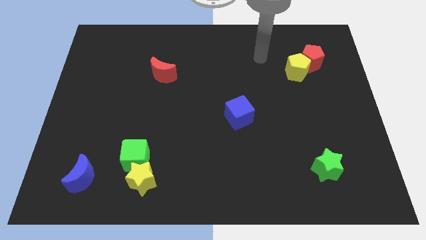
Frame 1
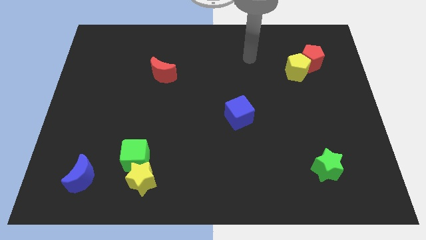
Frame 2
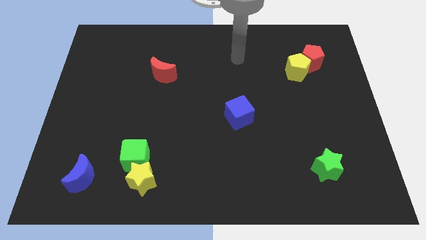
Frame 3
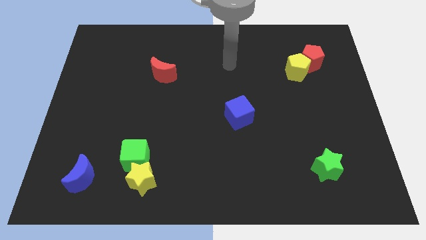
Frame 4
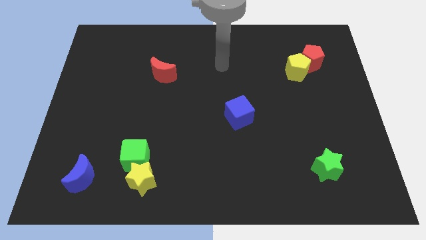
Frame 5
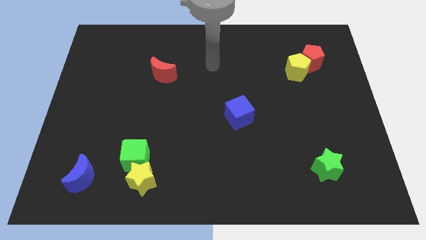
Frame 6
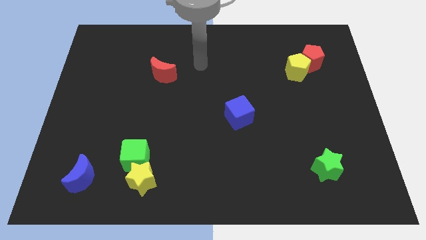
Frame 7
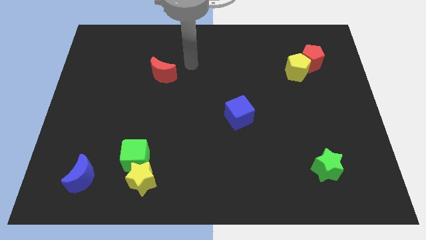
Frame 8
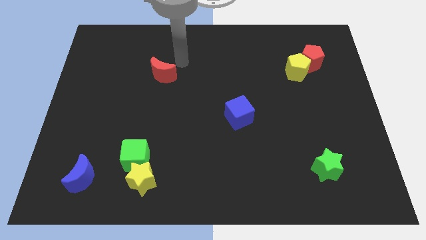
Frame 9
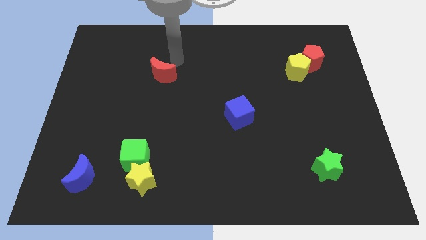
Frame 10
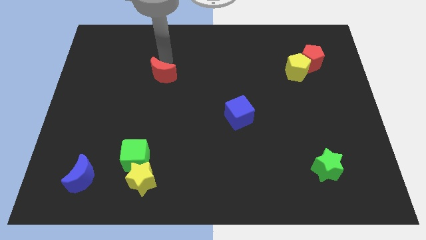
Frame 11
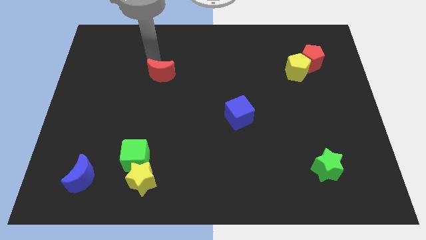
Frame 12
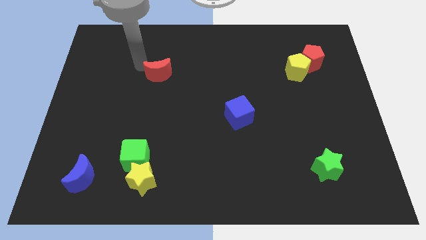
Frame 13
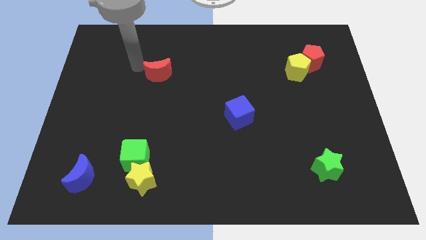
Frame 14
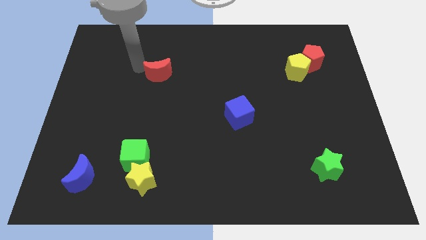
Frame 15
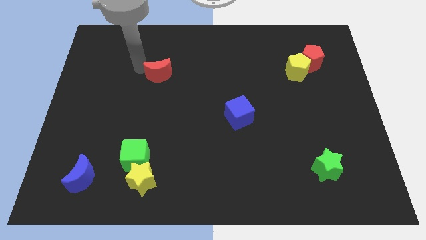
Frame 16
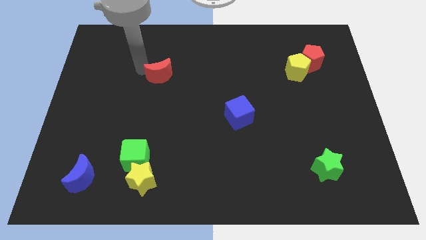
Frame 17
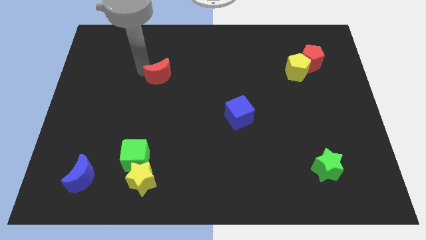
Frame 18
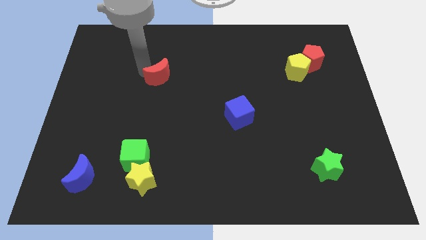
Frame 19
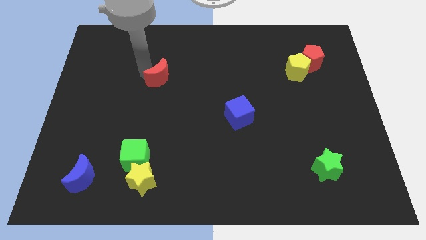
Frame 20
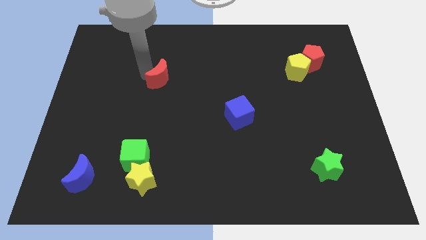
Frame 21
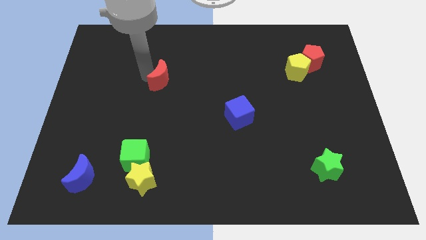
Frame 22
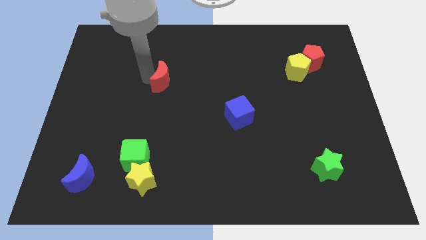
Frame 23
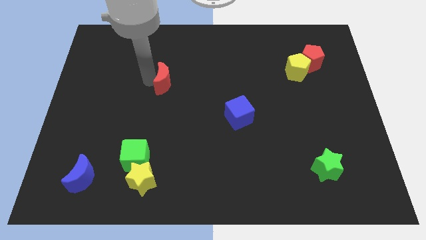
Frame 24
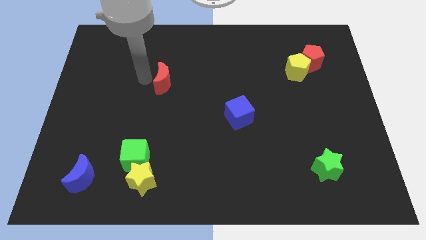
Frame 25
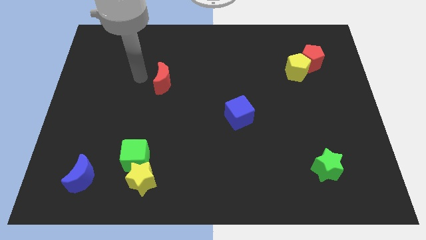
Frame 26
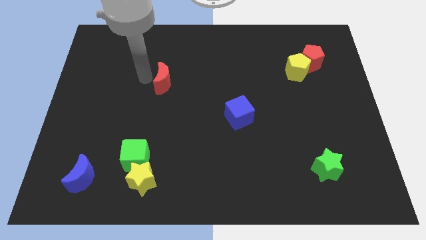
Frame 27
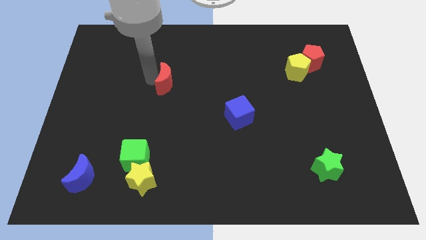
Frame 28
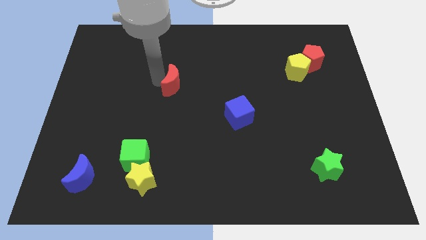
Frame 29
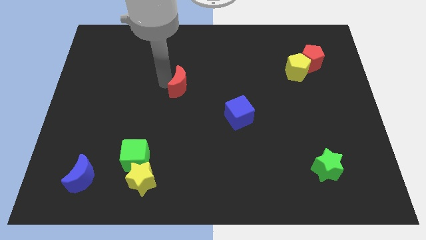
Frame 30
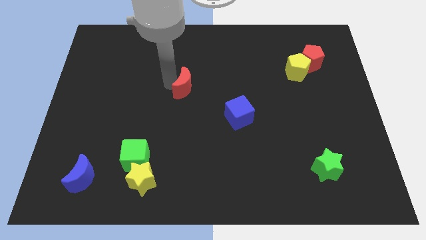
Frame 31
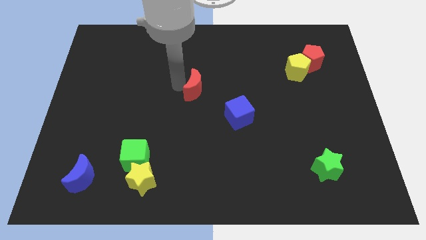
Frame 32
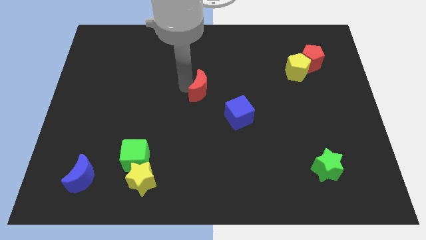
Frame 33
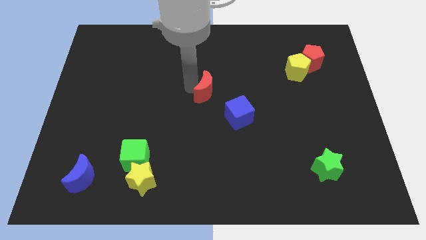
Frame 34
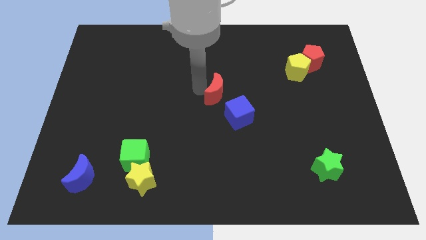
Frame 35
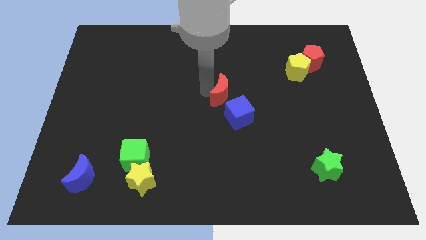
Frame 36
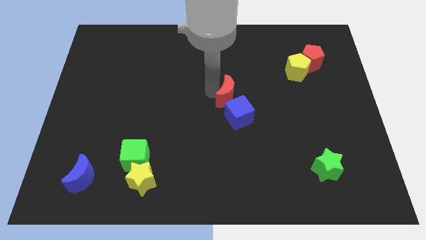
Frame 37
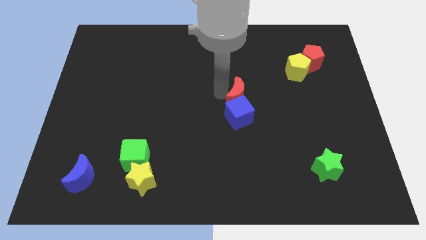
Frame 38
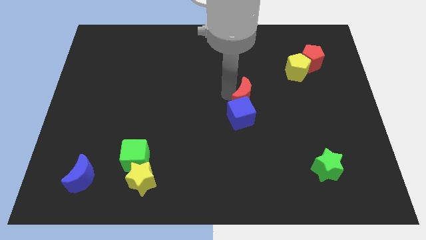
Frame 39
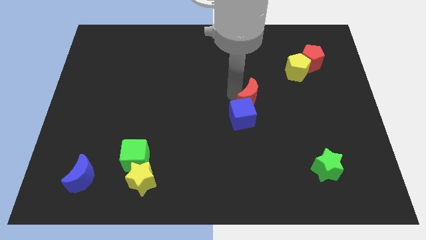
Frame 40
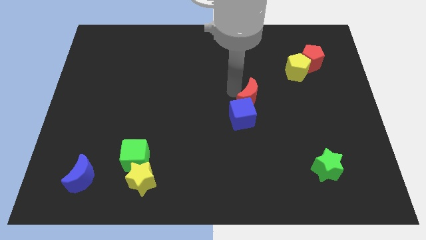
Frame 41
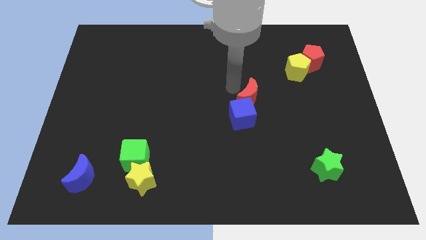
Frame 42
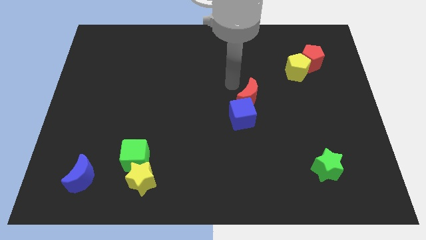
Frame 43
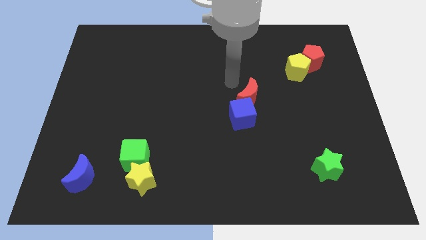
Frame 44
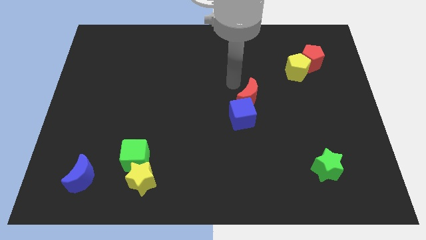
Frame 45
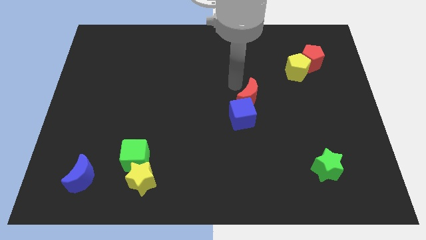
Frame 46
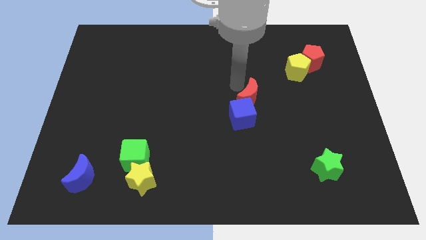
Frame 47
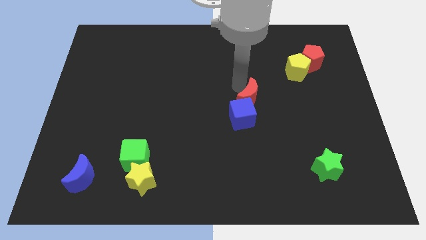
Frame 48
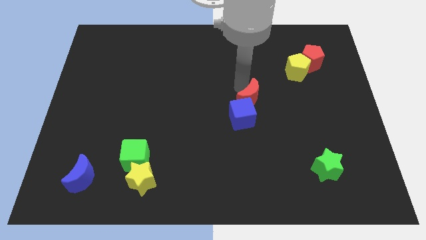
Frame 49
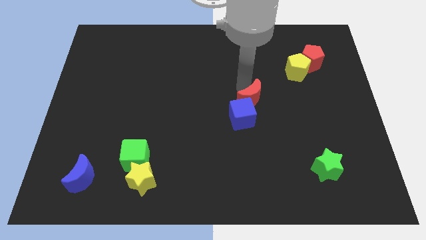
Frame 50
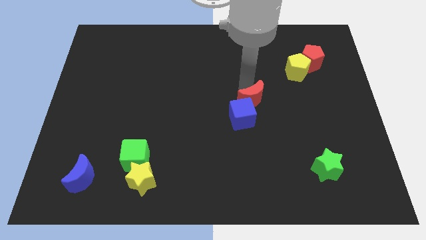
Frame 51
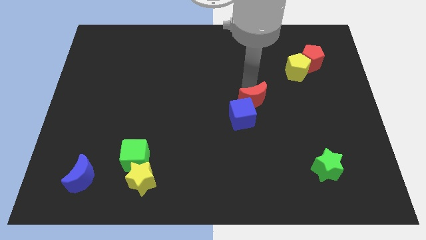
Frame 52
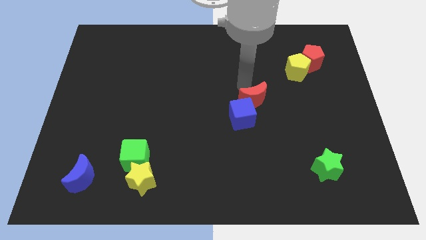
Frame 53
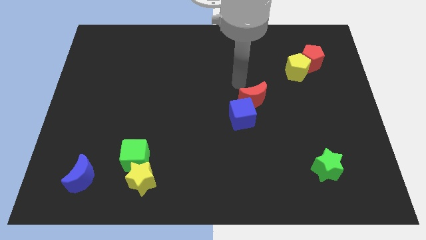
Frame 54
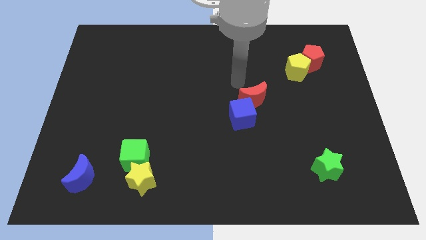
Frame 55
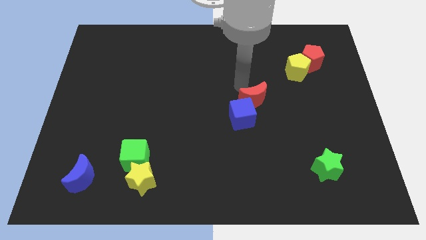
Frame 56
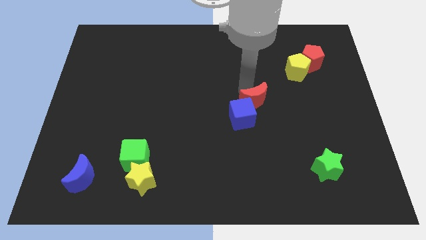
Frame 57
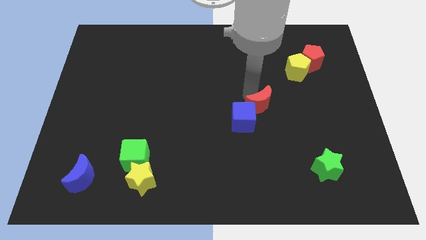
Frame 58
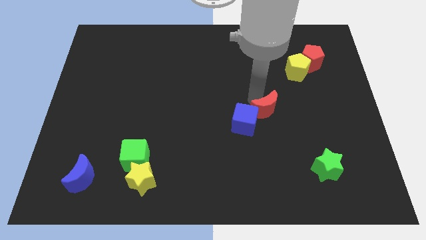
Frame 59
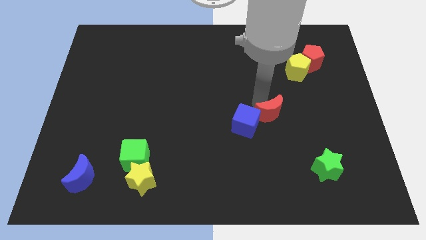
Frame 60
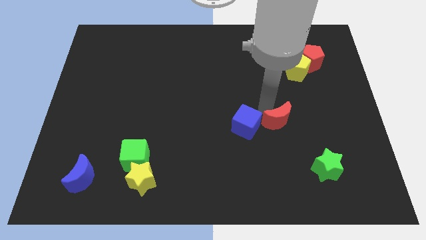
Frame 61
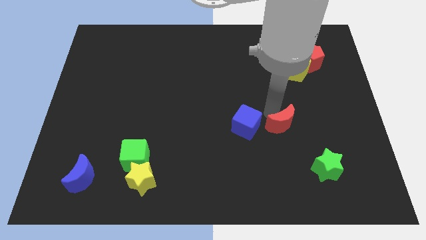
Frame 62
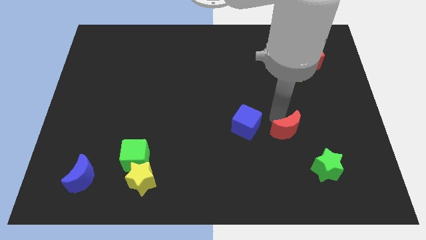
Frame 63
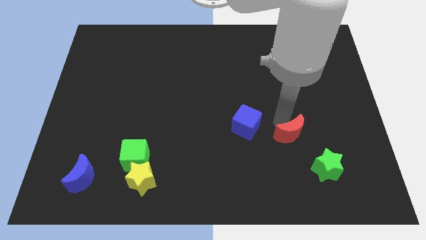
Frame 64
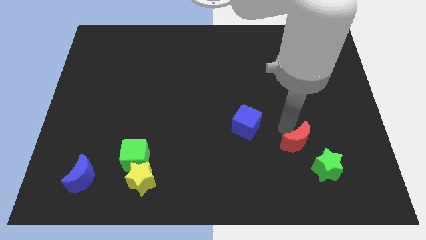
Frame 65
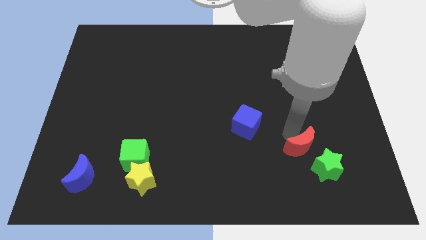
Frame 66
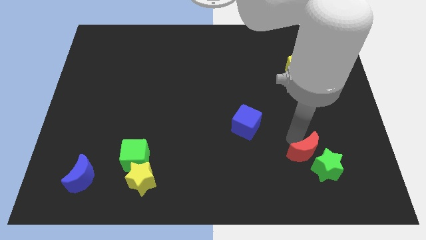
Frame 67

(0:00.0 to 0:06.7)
push the red moon towards the green star

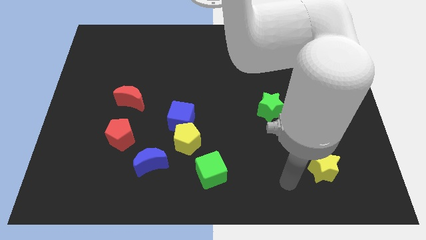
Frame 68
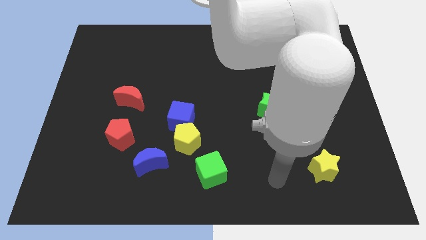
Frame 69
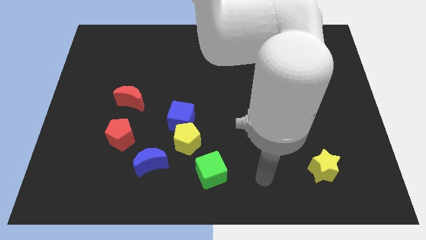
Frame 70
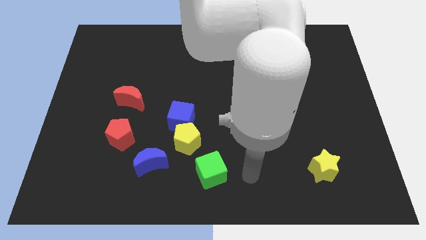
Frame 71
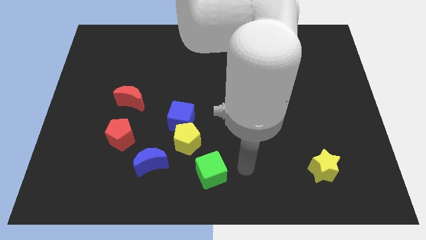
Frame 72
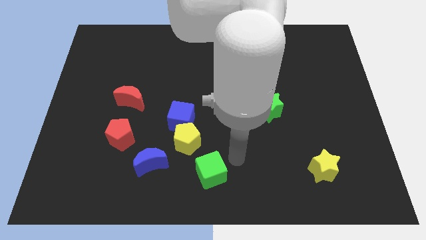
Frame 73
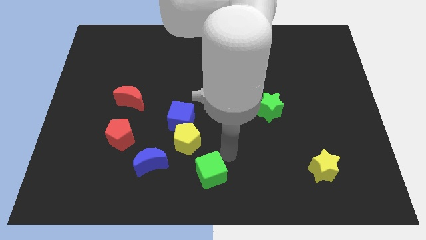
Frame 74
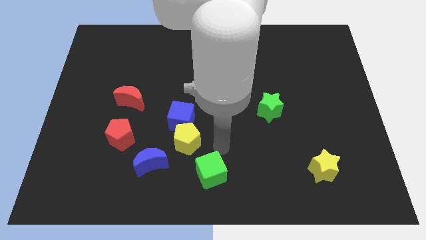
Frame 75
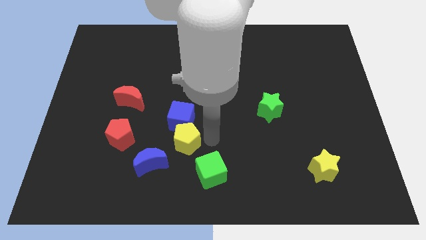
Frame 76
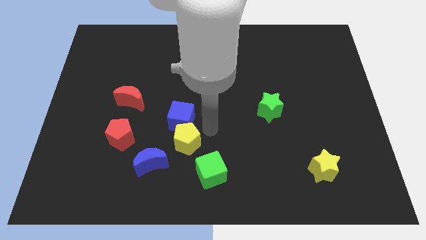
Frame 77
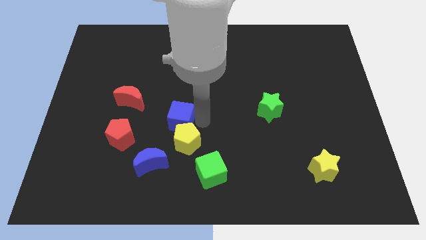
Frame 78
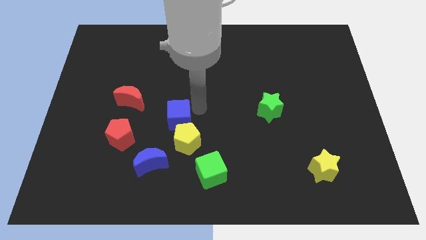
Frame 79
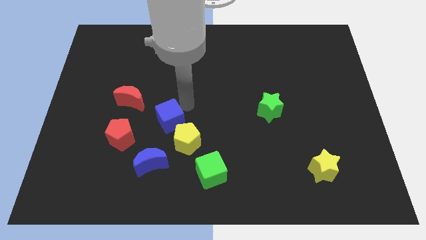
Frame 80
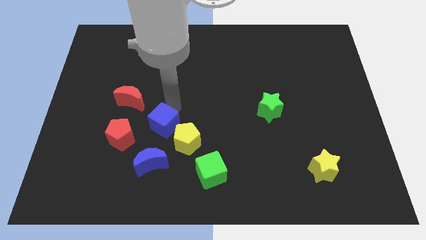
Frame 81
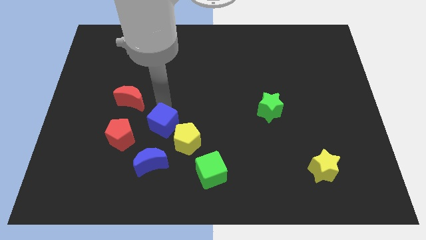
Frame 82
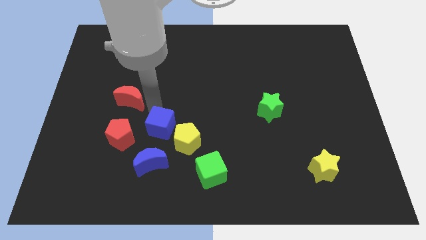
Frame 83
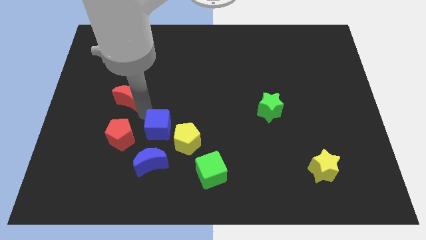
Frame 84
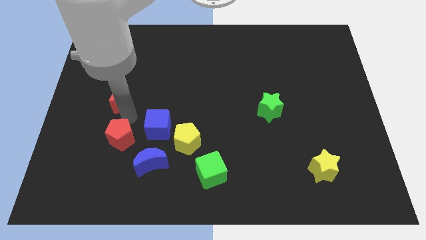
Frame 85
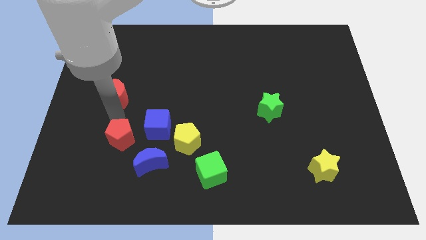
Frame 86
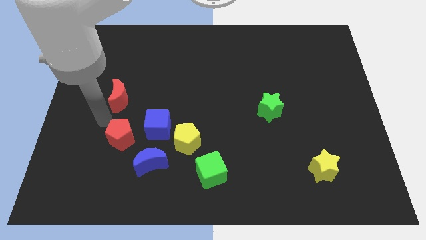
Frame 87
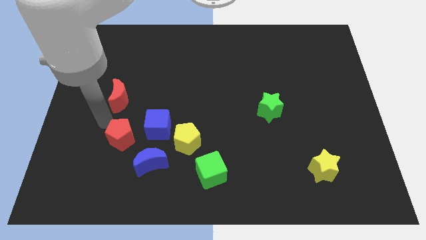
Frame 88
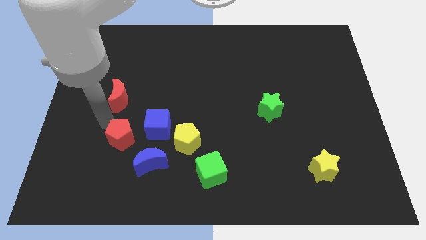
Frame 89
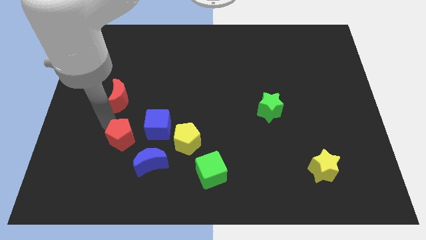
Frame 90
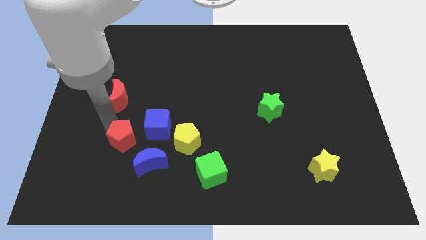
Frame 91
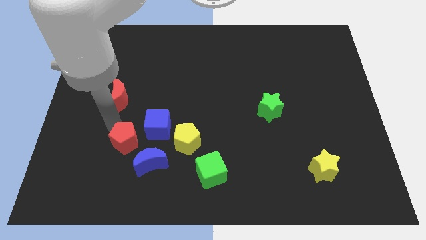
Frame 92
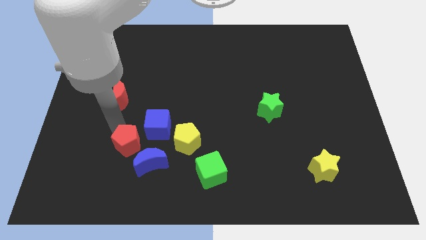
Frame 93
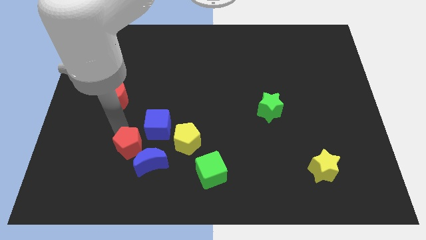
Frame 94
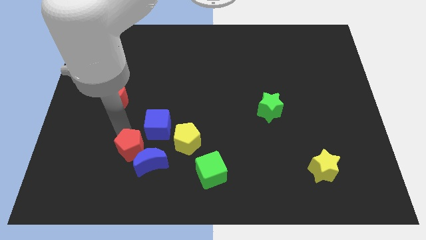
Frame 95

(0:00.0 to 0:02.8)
move the red pentagon to the blue moon
